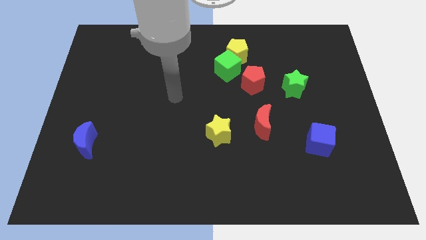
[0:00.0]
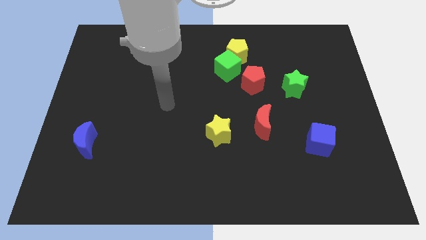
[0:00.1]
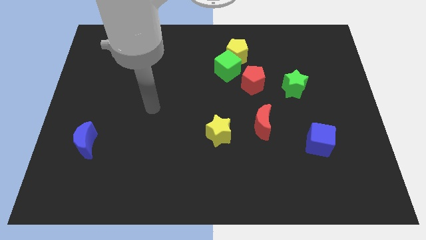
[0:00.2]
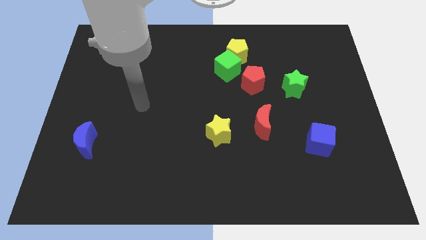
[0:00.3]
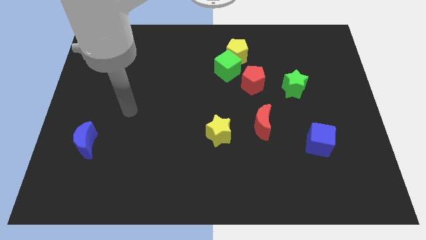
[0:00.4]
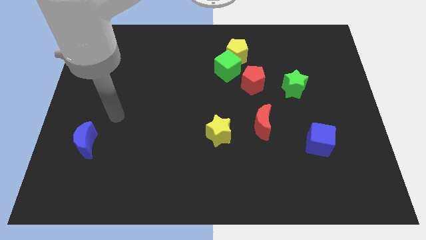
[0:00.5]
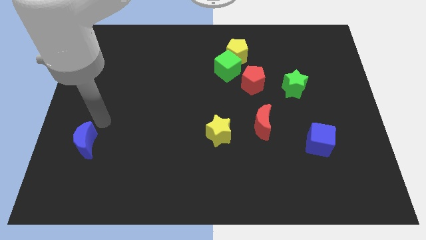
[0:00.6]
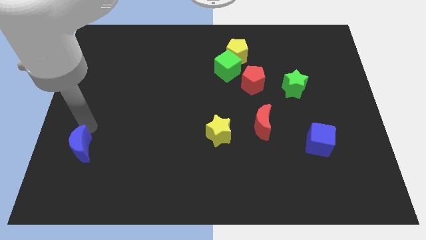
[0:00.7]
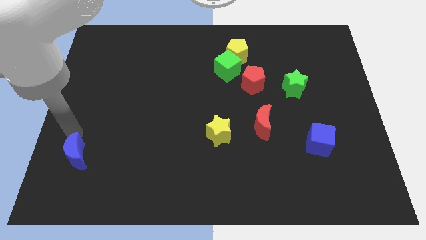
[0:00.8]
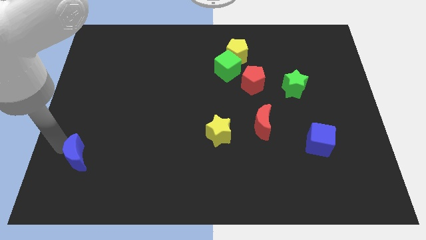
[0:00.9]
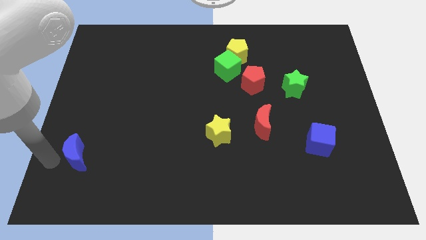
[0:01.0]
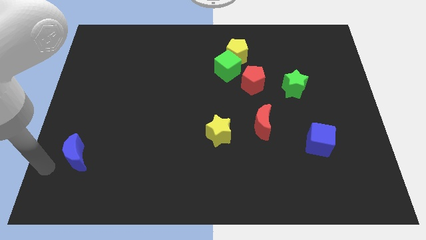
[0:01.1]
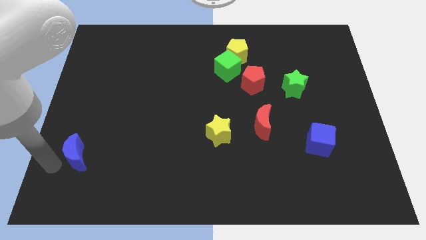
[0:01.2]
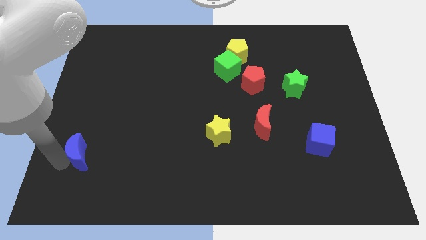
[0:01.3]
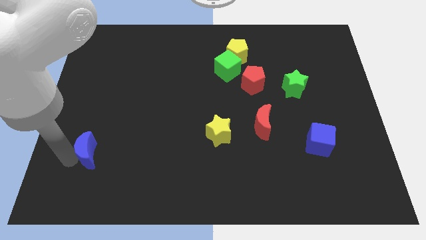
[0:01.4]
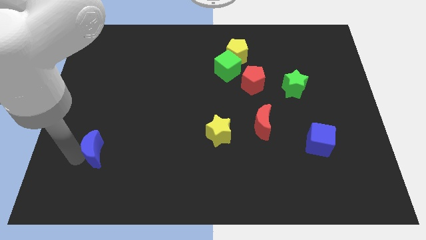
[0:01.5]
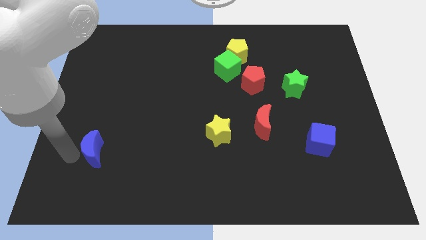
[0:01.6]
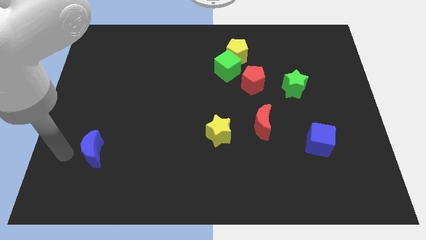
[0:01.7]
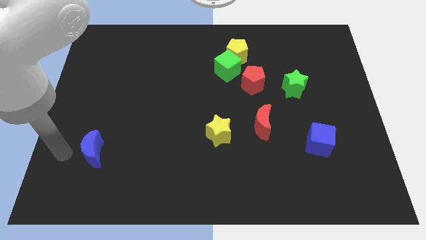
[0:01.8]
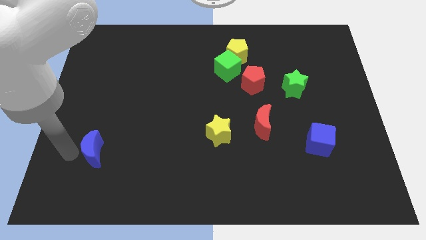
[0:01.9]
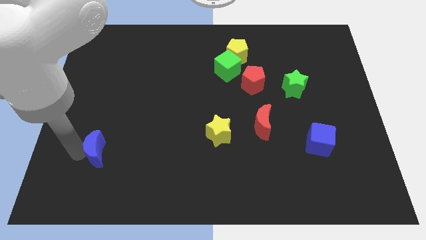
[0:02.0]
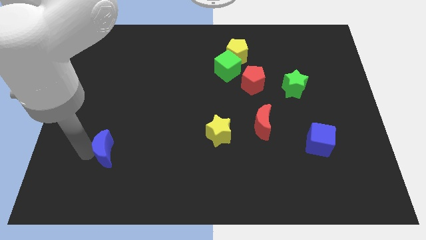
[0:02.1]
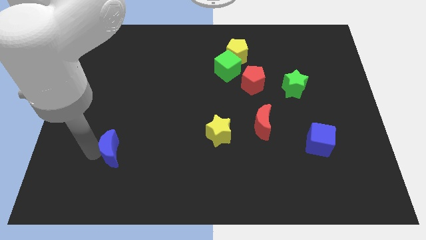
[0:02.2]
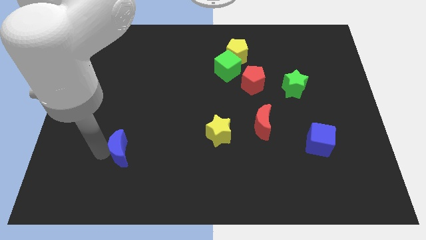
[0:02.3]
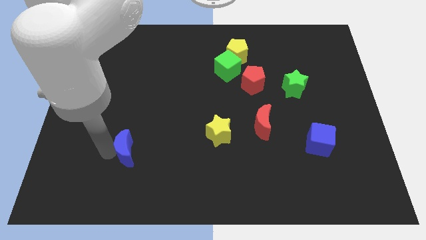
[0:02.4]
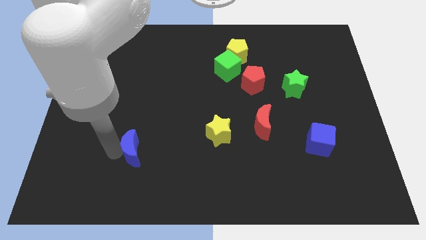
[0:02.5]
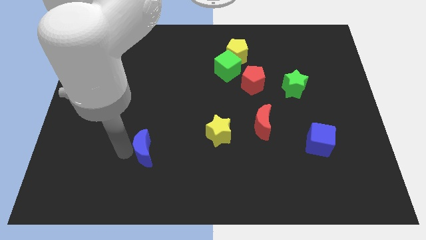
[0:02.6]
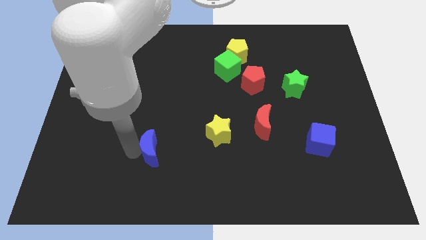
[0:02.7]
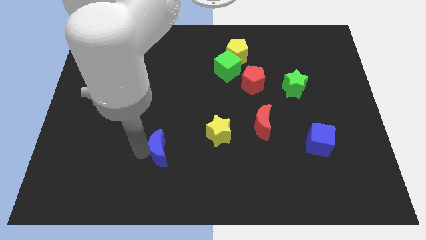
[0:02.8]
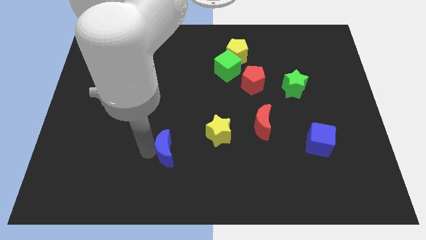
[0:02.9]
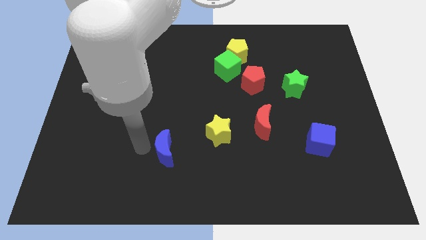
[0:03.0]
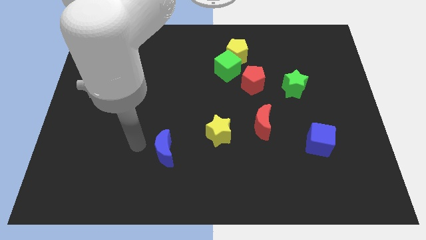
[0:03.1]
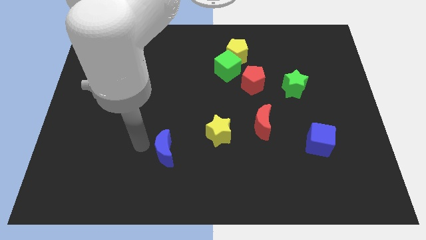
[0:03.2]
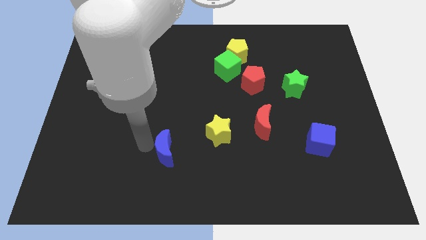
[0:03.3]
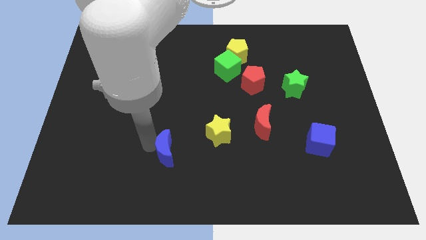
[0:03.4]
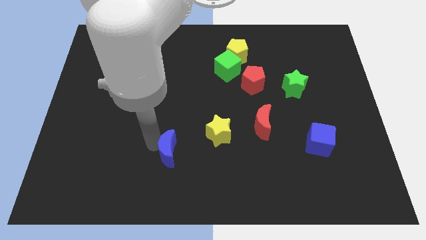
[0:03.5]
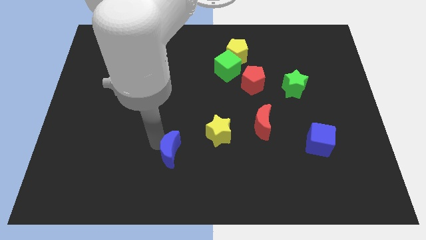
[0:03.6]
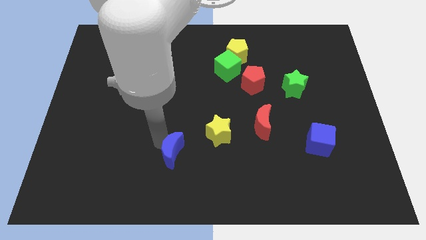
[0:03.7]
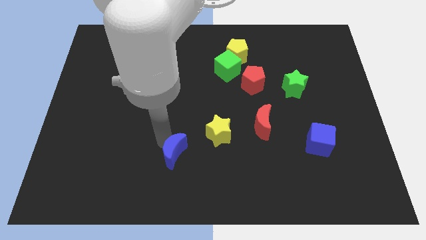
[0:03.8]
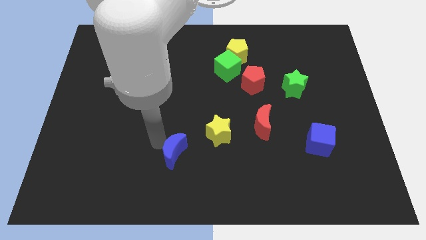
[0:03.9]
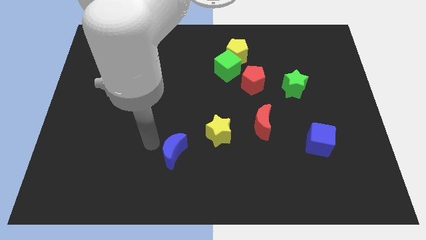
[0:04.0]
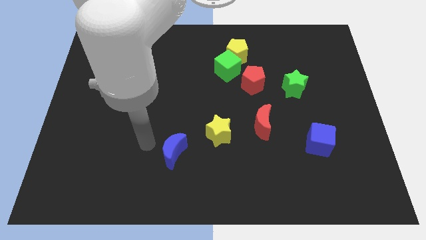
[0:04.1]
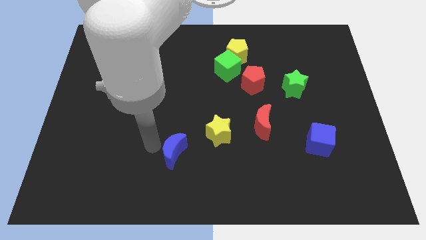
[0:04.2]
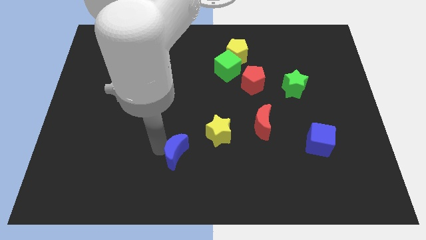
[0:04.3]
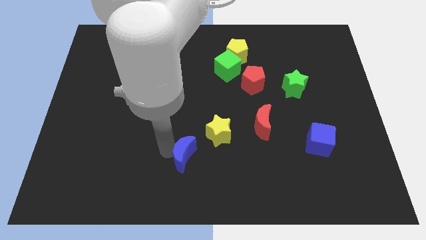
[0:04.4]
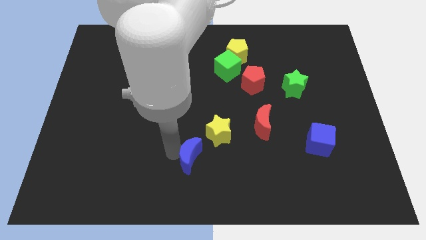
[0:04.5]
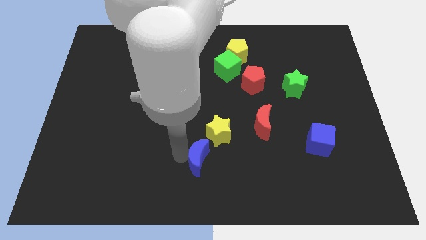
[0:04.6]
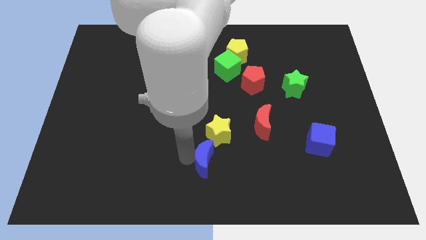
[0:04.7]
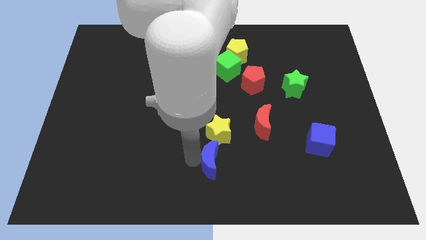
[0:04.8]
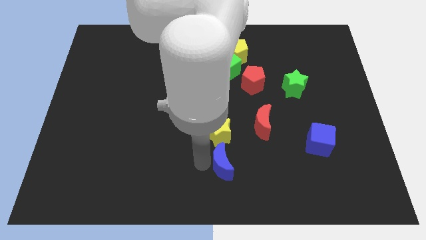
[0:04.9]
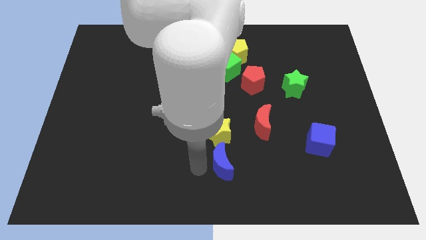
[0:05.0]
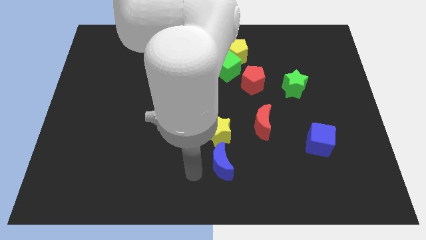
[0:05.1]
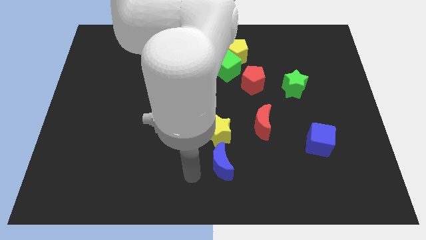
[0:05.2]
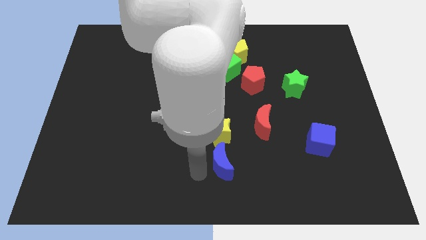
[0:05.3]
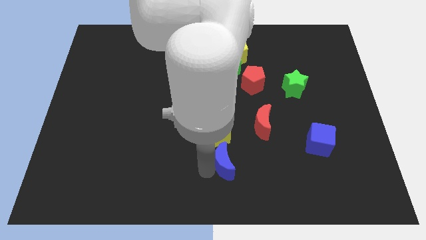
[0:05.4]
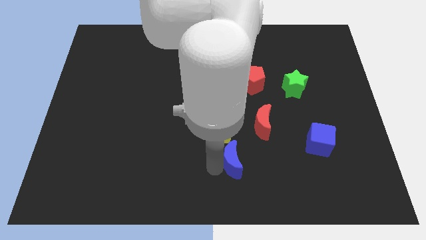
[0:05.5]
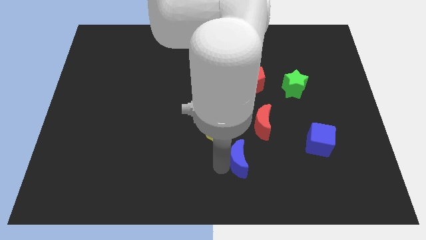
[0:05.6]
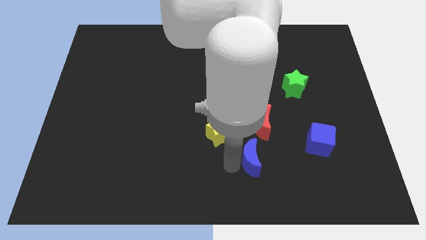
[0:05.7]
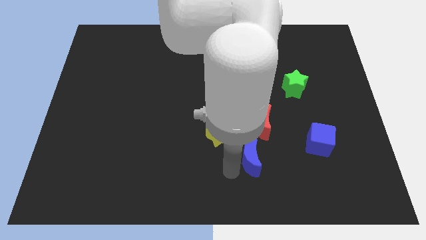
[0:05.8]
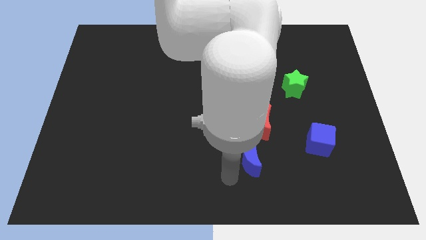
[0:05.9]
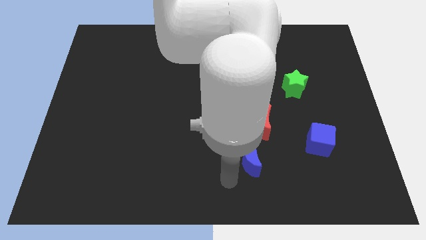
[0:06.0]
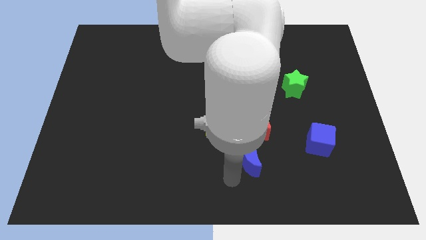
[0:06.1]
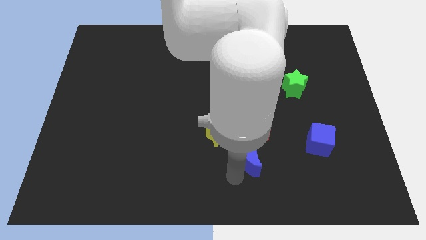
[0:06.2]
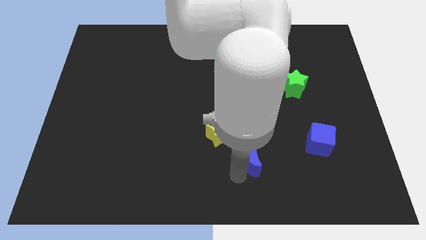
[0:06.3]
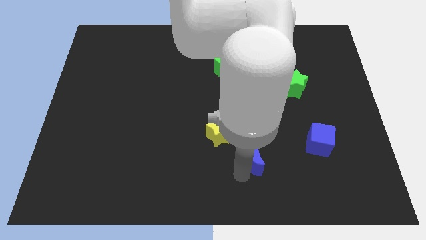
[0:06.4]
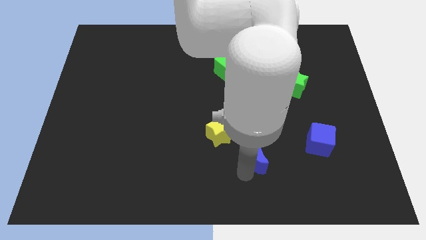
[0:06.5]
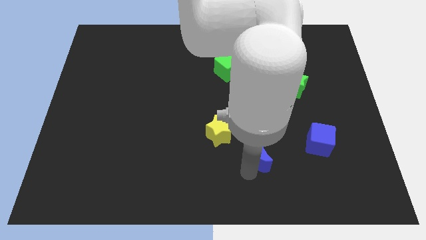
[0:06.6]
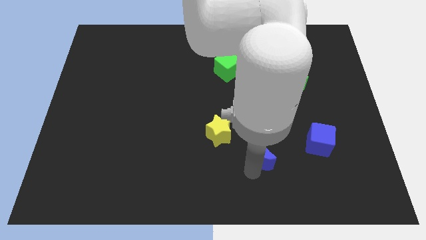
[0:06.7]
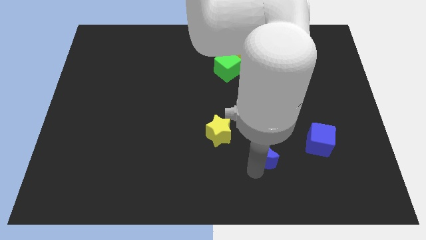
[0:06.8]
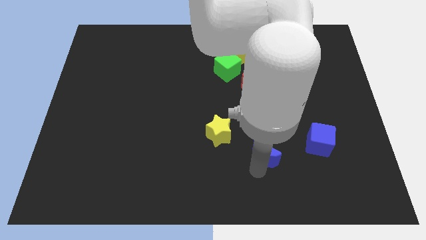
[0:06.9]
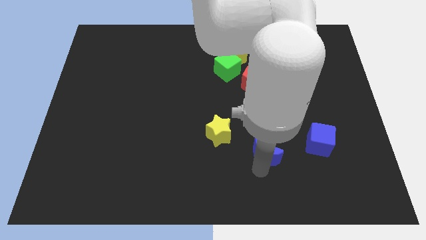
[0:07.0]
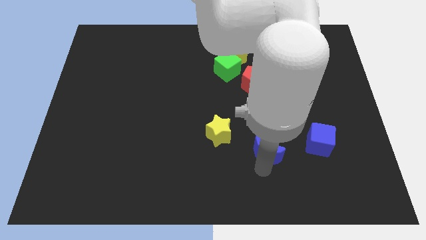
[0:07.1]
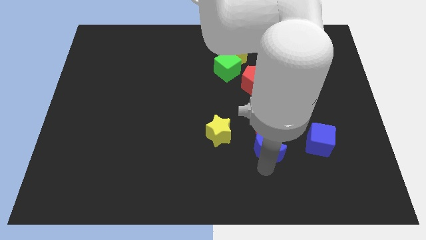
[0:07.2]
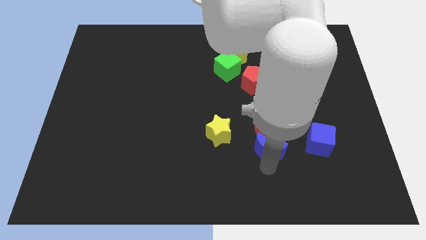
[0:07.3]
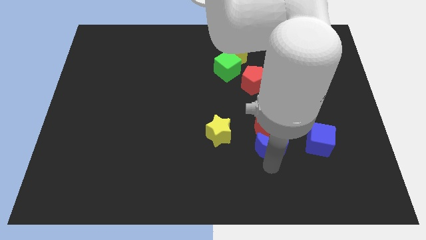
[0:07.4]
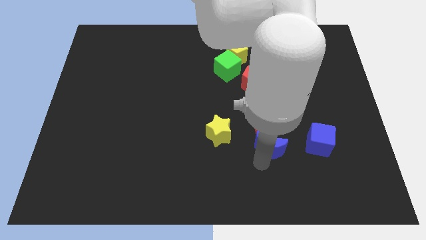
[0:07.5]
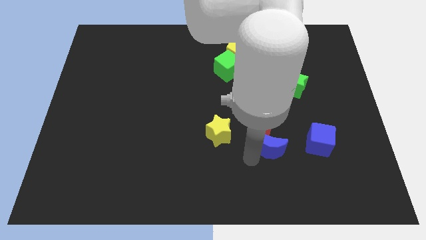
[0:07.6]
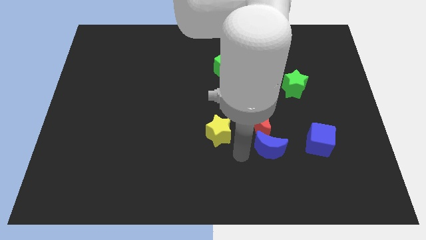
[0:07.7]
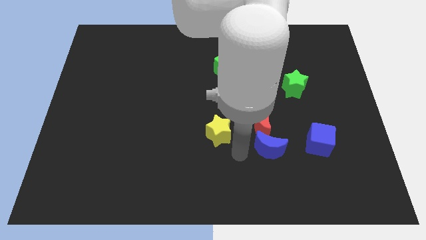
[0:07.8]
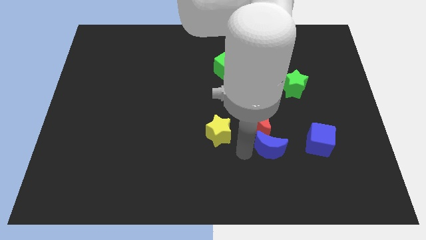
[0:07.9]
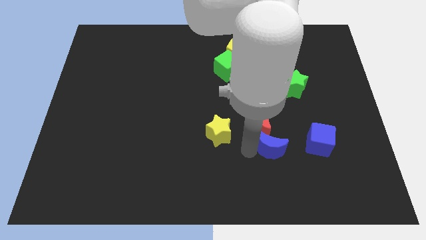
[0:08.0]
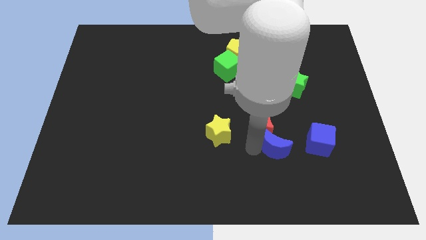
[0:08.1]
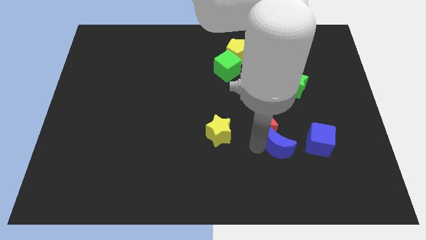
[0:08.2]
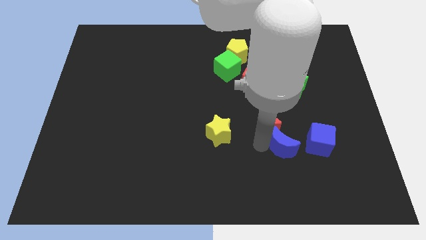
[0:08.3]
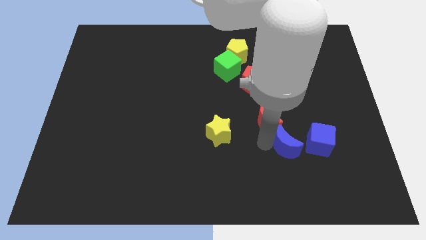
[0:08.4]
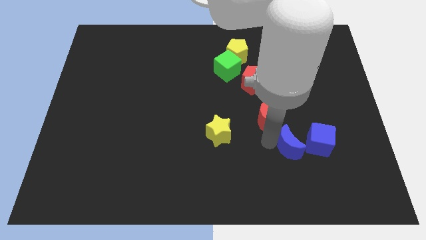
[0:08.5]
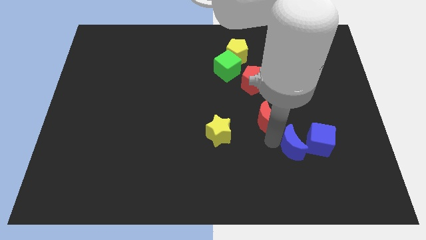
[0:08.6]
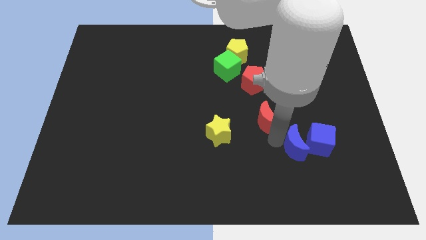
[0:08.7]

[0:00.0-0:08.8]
slide the blue moon close to the blue cube
